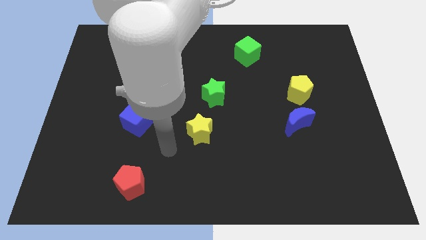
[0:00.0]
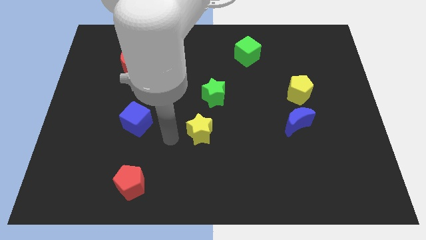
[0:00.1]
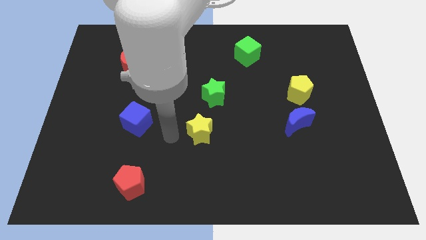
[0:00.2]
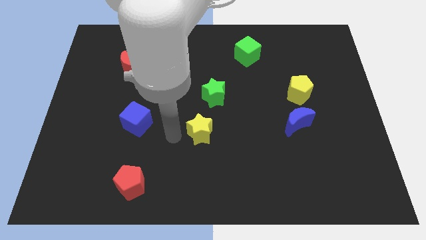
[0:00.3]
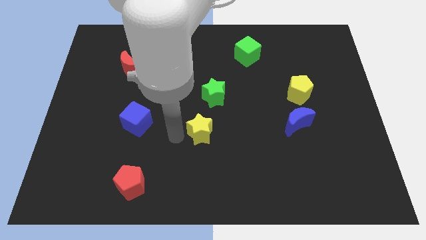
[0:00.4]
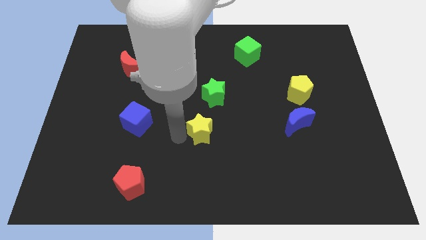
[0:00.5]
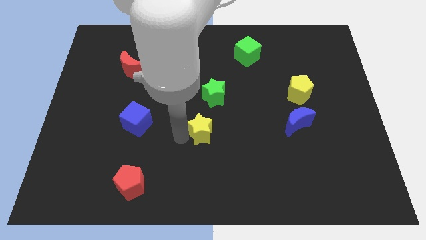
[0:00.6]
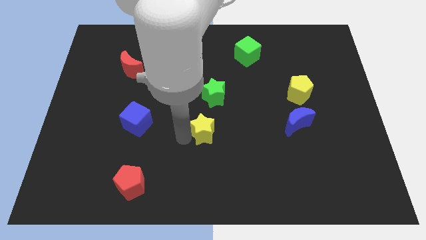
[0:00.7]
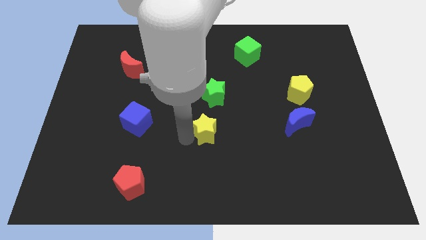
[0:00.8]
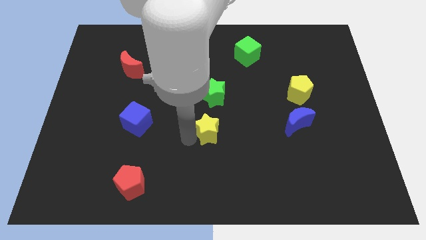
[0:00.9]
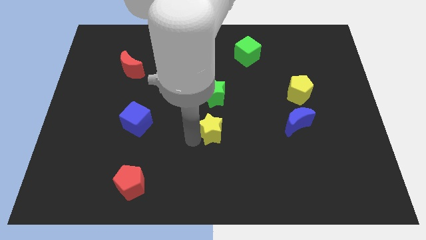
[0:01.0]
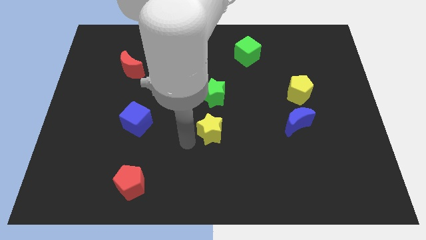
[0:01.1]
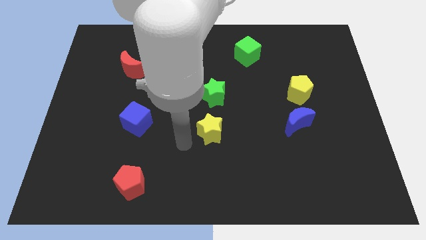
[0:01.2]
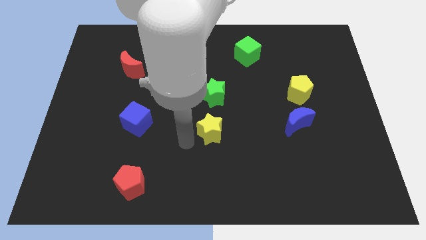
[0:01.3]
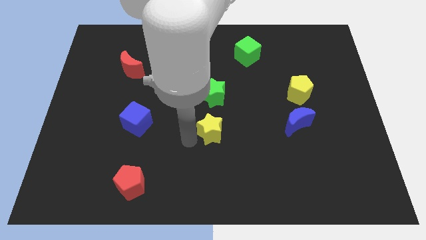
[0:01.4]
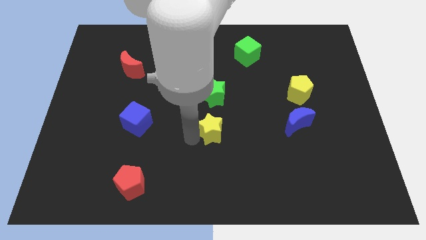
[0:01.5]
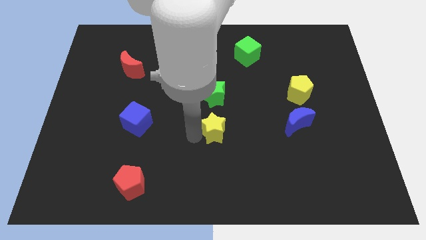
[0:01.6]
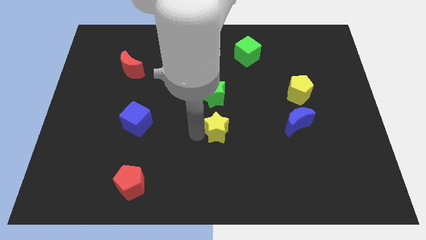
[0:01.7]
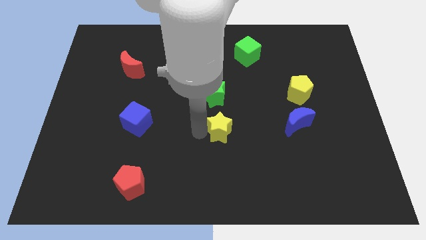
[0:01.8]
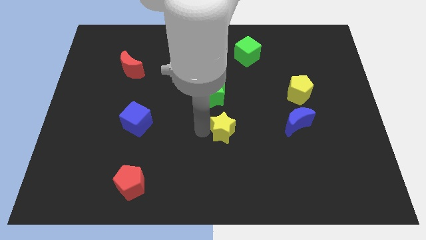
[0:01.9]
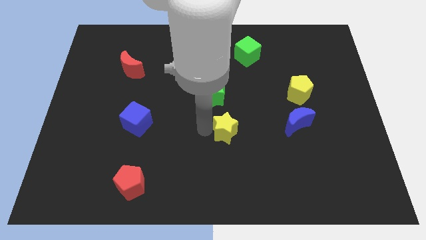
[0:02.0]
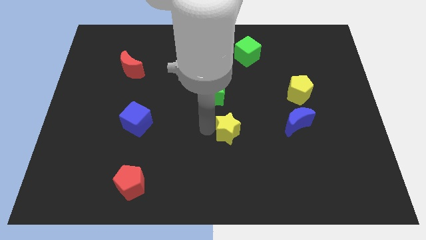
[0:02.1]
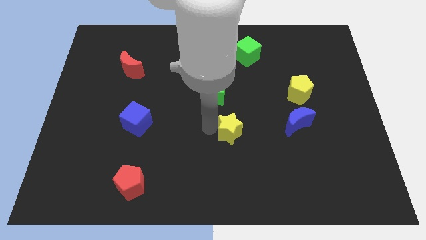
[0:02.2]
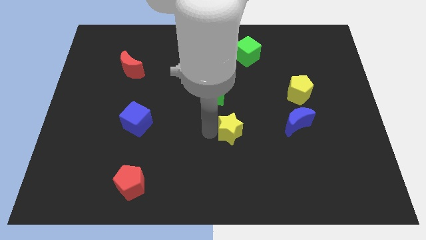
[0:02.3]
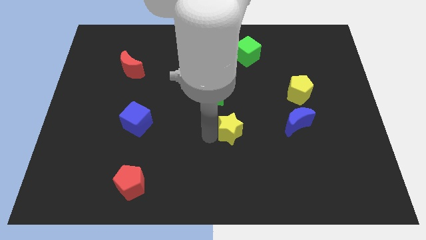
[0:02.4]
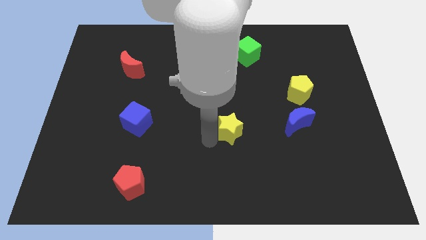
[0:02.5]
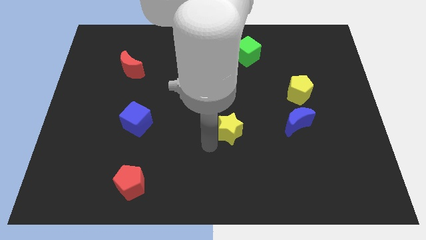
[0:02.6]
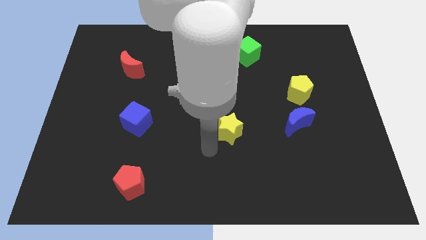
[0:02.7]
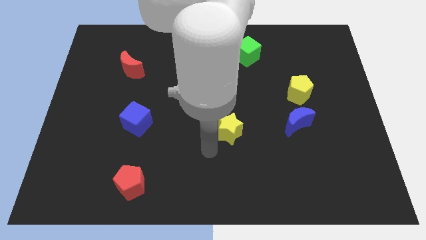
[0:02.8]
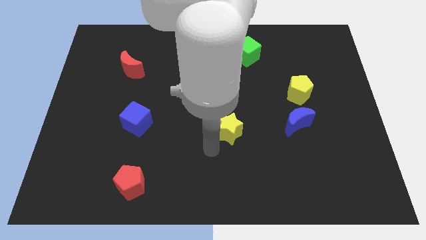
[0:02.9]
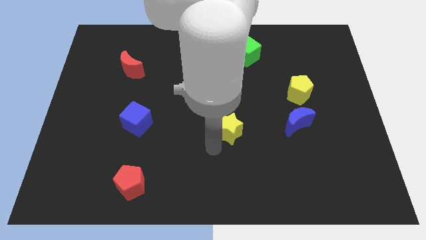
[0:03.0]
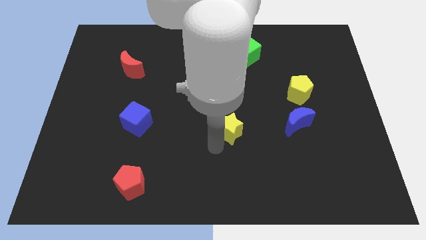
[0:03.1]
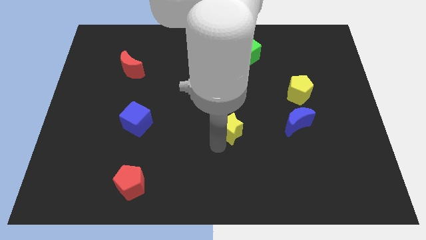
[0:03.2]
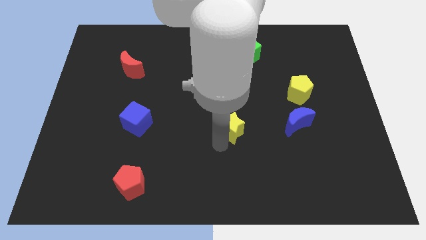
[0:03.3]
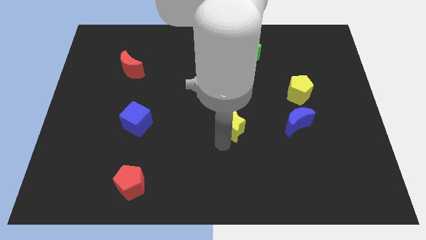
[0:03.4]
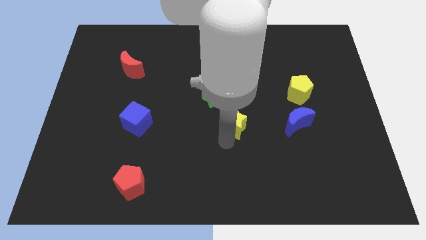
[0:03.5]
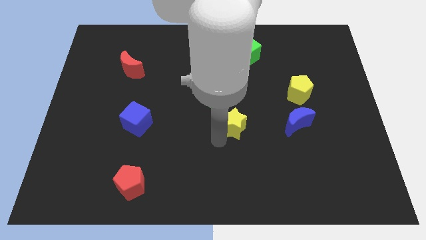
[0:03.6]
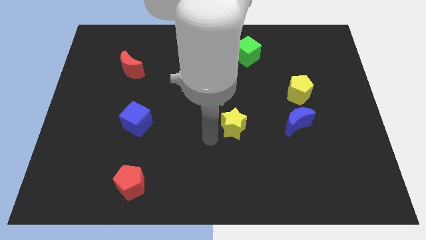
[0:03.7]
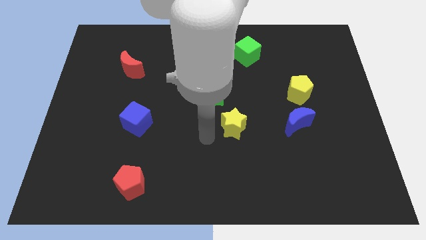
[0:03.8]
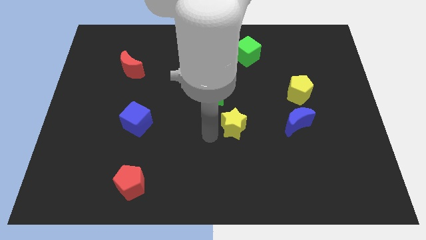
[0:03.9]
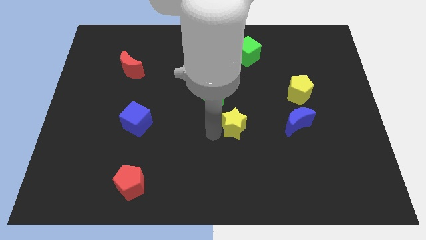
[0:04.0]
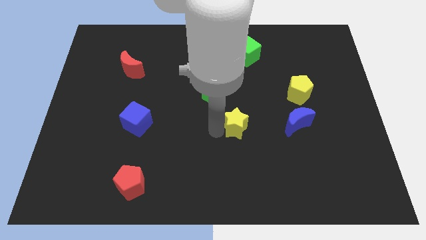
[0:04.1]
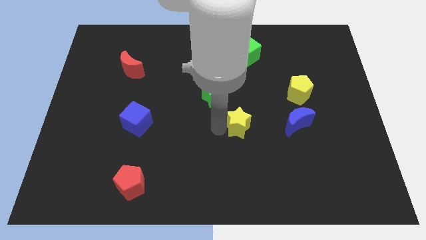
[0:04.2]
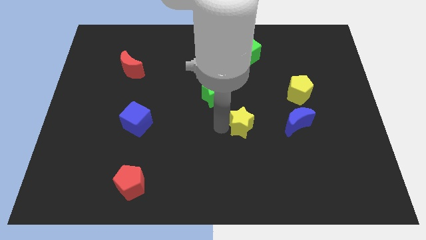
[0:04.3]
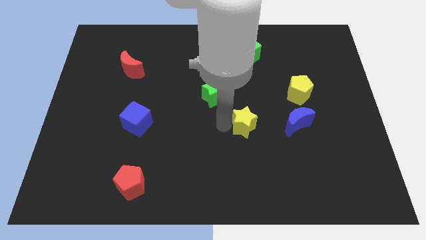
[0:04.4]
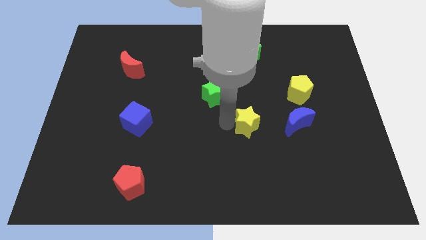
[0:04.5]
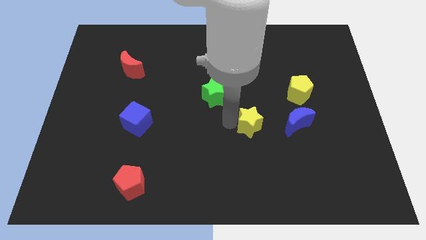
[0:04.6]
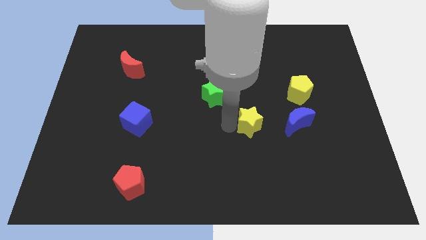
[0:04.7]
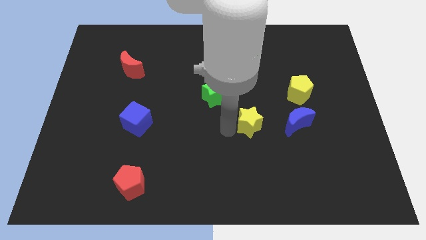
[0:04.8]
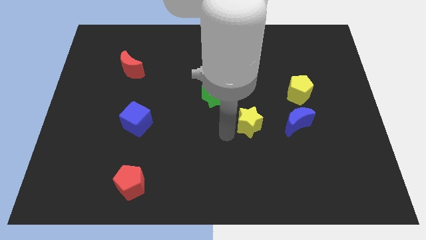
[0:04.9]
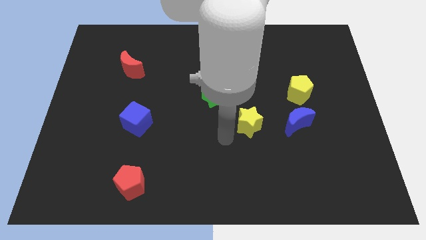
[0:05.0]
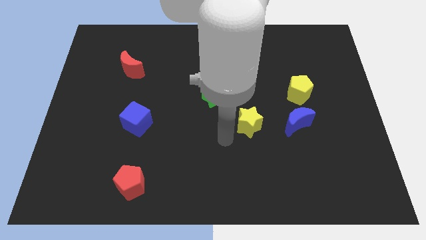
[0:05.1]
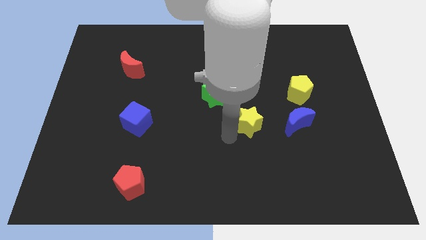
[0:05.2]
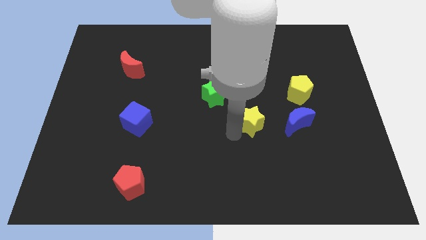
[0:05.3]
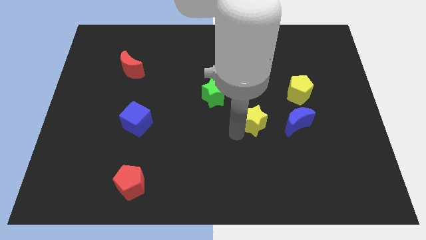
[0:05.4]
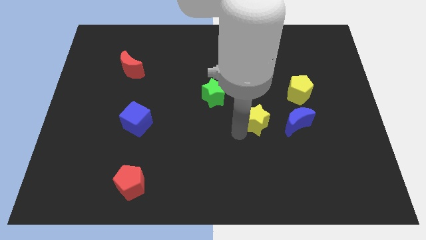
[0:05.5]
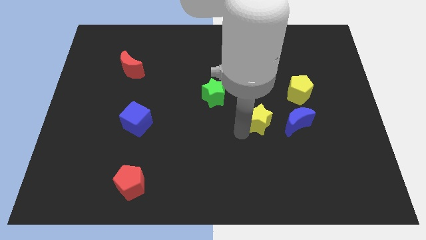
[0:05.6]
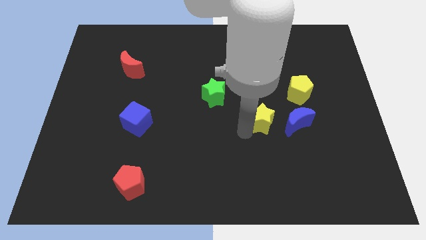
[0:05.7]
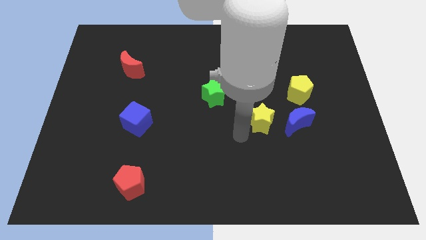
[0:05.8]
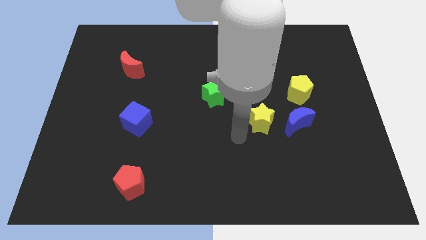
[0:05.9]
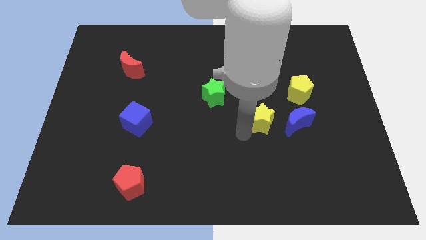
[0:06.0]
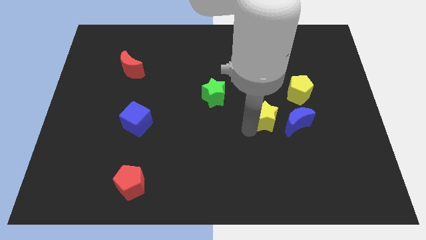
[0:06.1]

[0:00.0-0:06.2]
slide the yellow star to the bottom left of the yellow pentagon

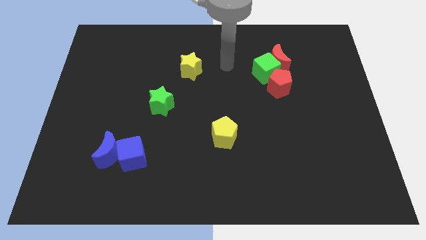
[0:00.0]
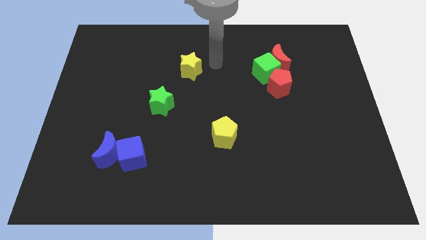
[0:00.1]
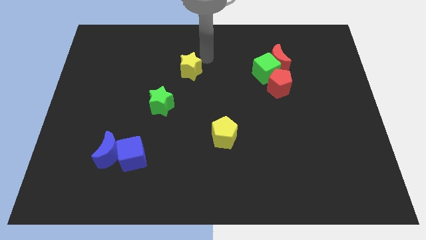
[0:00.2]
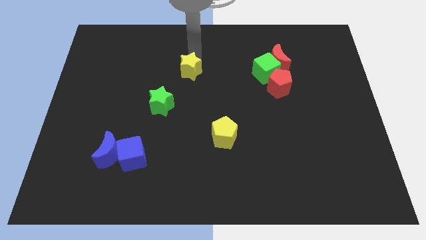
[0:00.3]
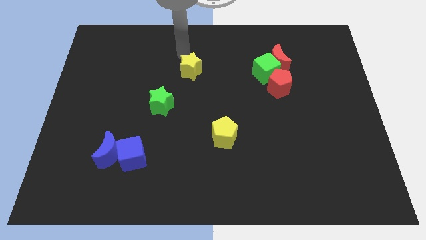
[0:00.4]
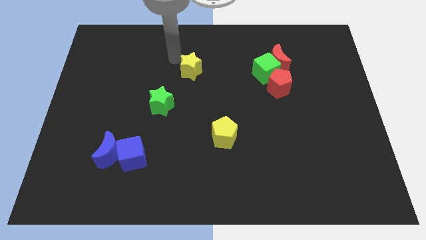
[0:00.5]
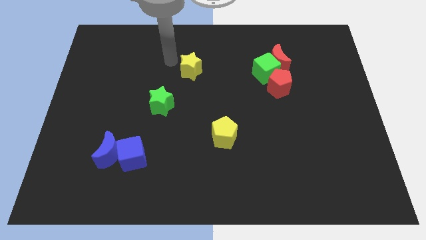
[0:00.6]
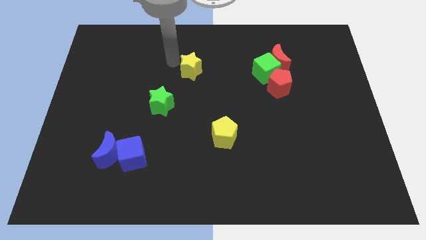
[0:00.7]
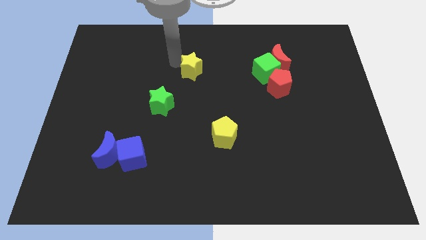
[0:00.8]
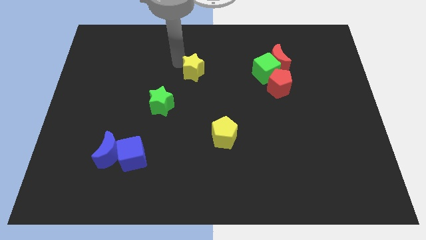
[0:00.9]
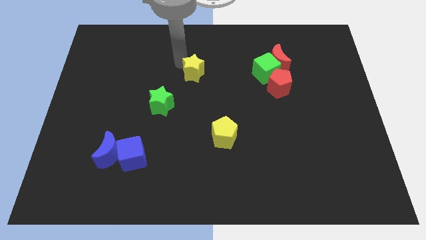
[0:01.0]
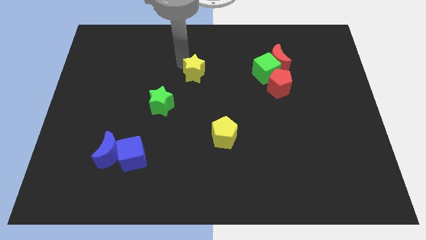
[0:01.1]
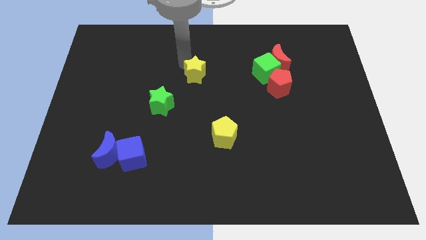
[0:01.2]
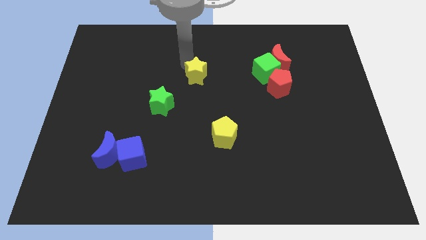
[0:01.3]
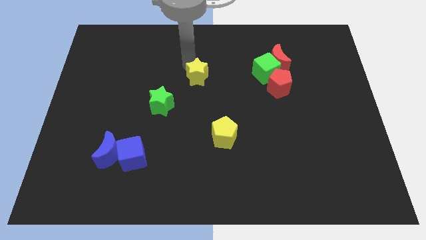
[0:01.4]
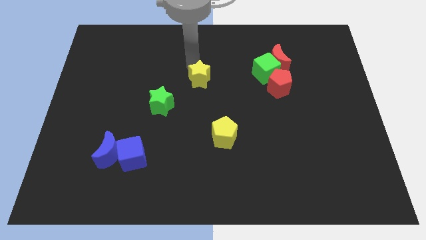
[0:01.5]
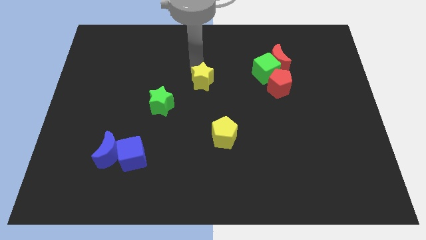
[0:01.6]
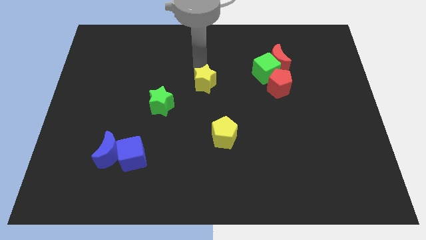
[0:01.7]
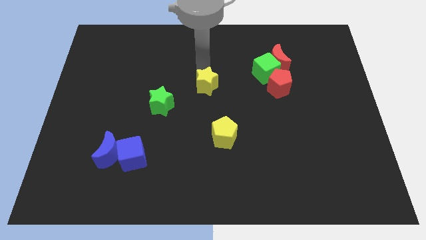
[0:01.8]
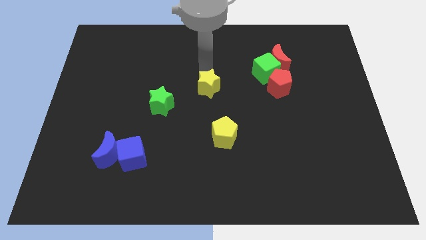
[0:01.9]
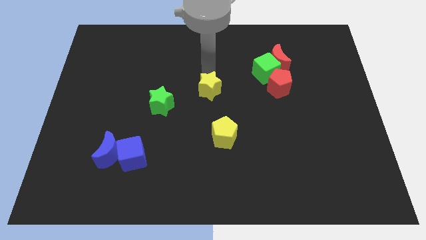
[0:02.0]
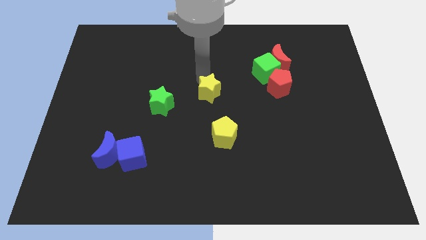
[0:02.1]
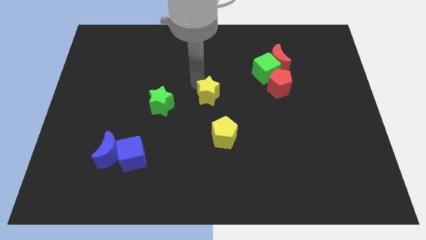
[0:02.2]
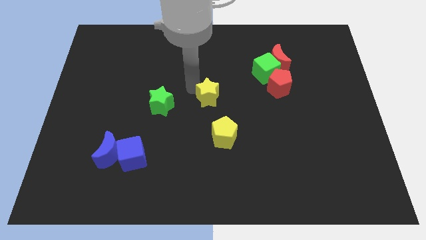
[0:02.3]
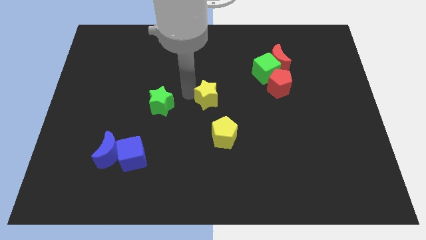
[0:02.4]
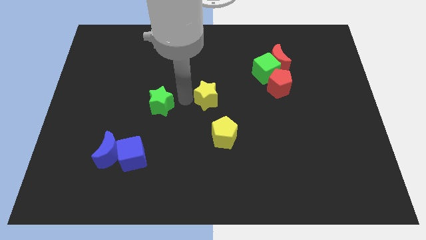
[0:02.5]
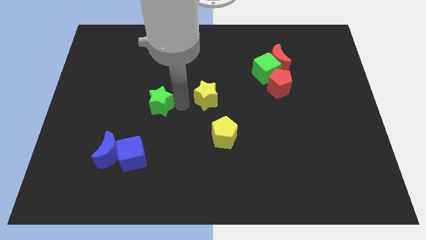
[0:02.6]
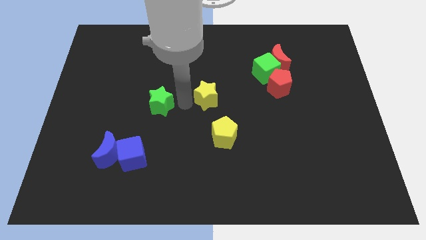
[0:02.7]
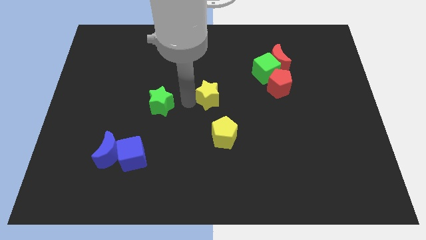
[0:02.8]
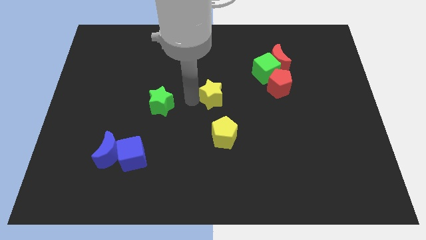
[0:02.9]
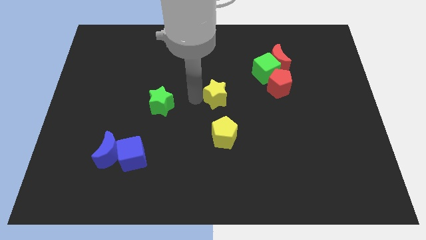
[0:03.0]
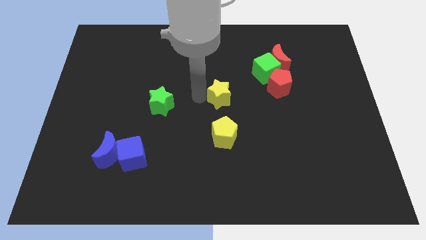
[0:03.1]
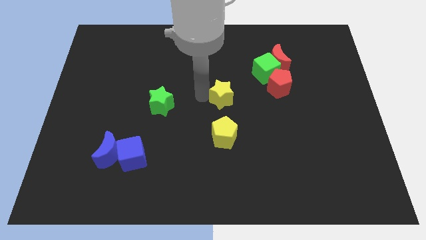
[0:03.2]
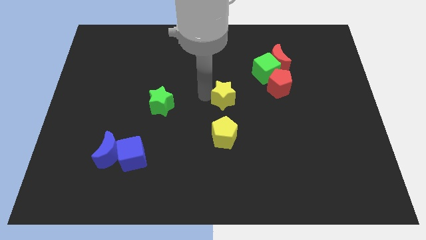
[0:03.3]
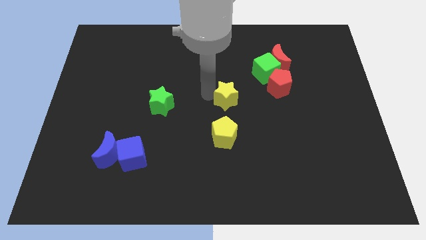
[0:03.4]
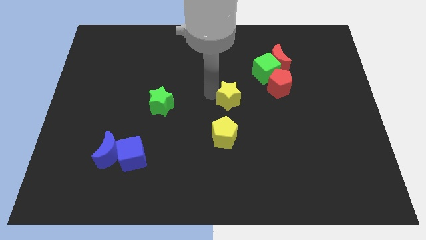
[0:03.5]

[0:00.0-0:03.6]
slide the yellow star to the bottom left of the green cube
